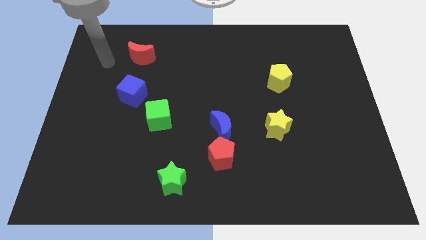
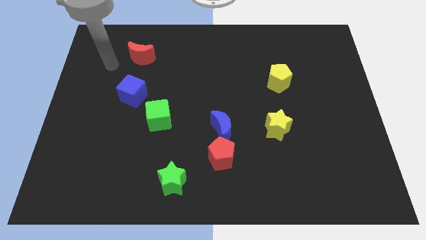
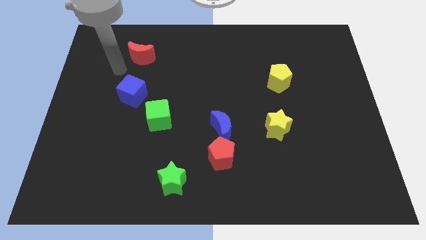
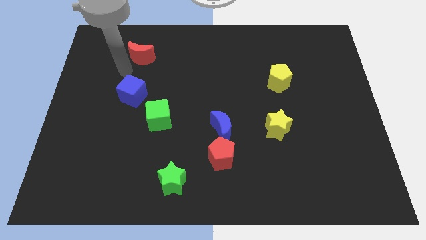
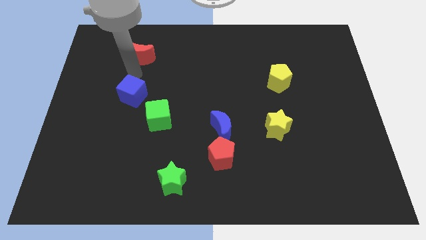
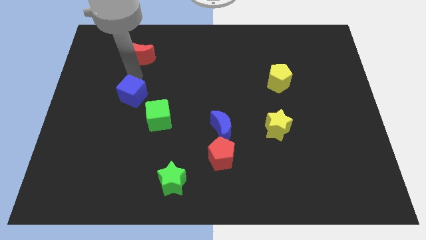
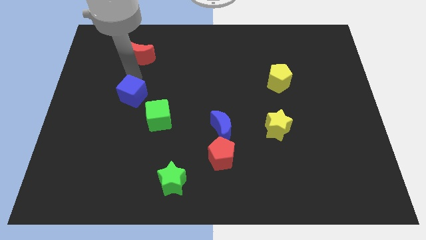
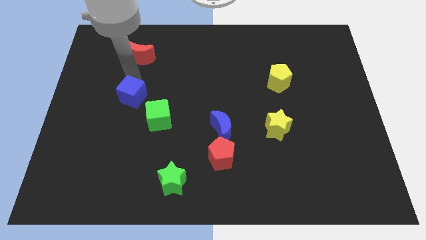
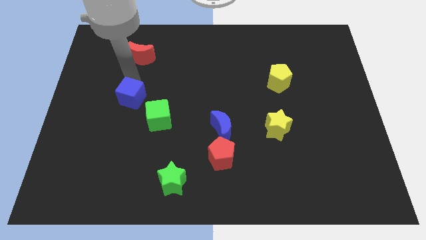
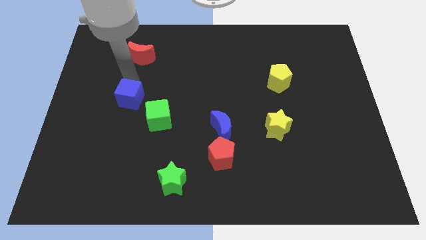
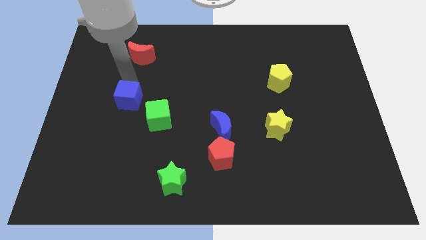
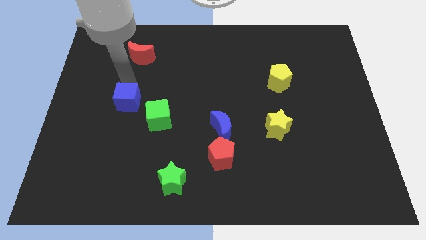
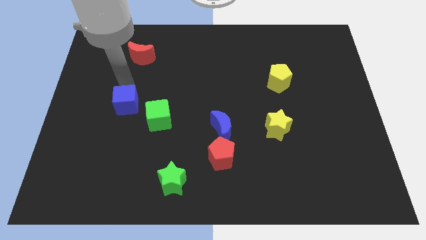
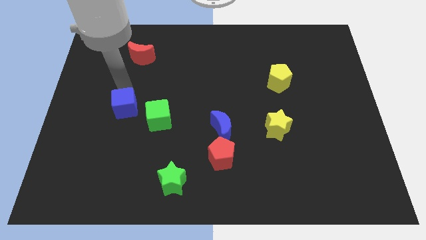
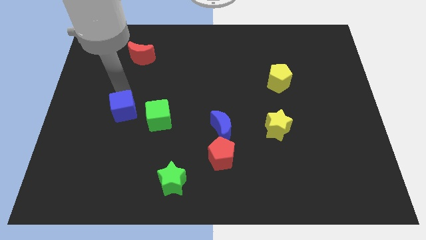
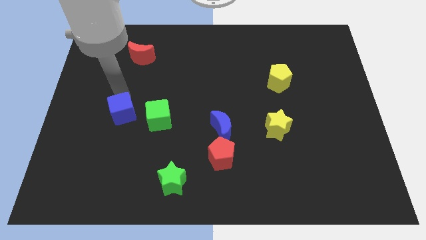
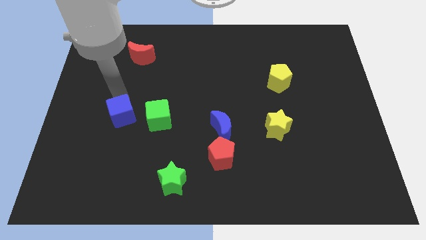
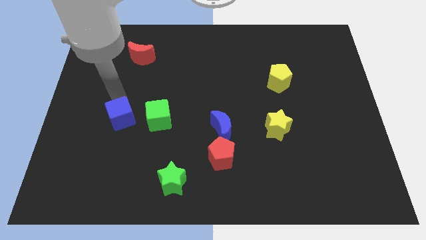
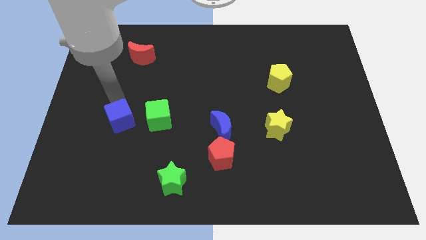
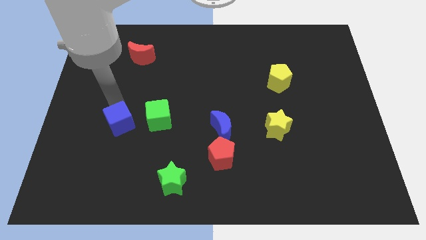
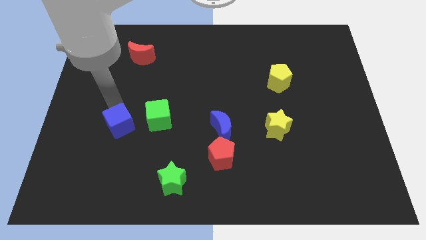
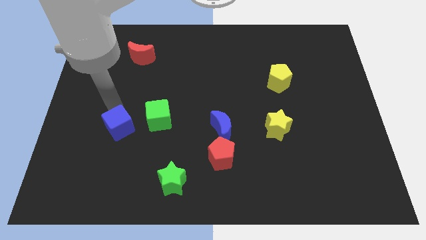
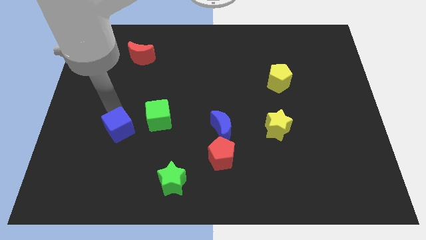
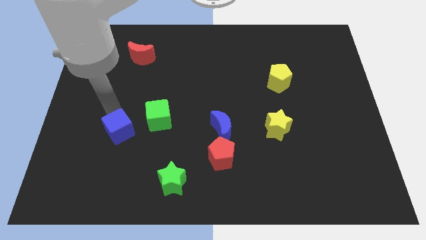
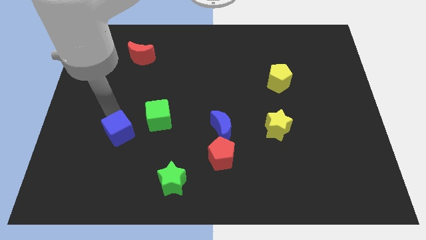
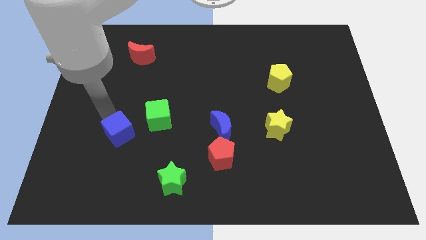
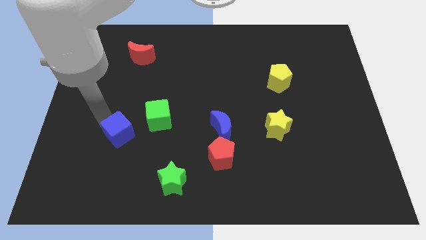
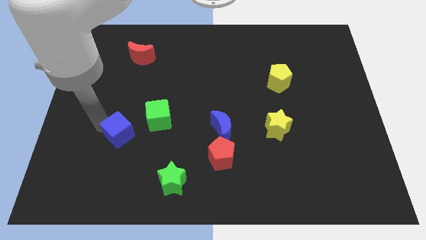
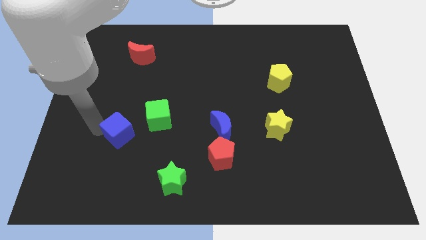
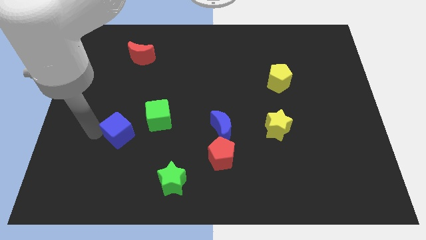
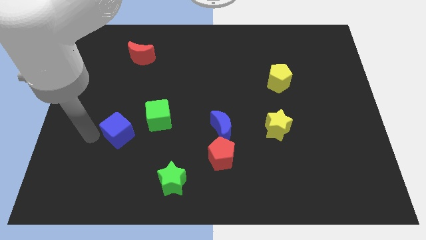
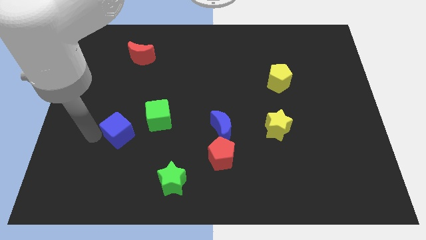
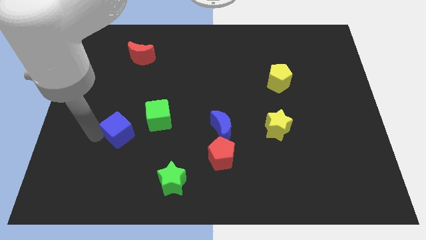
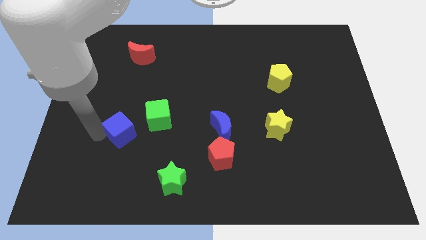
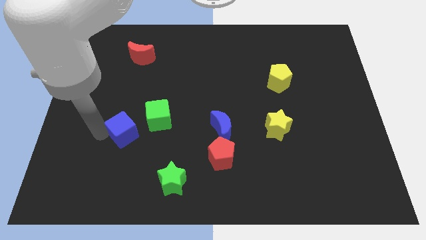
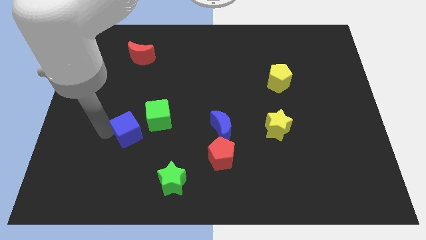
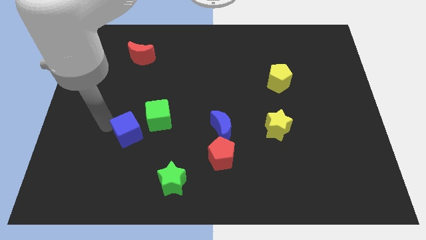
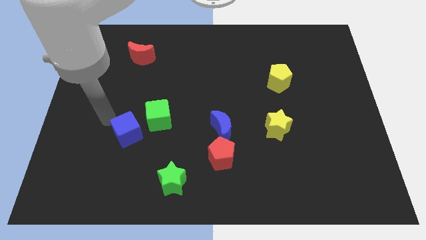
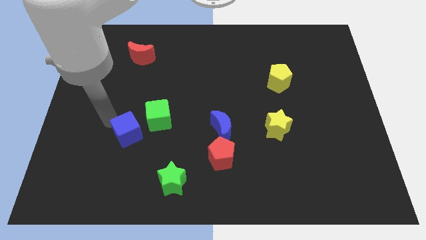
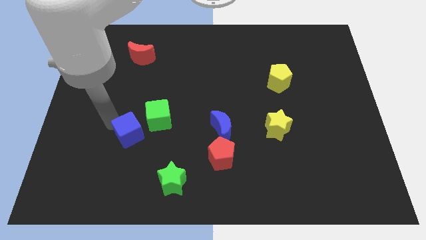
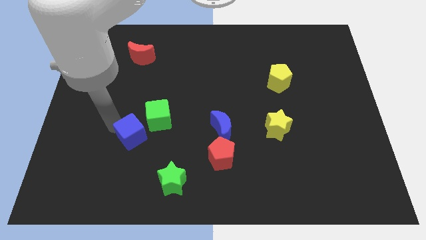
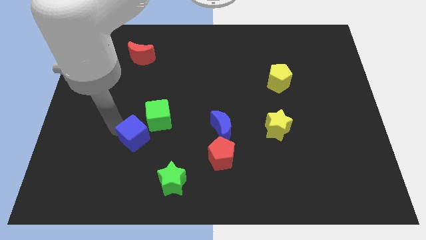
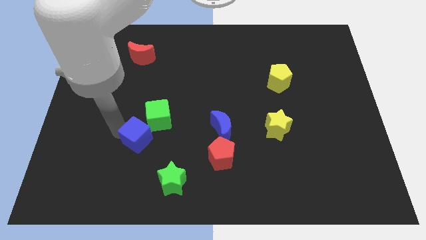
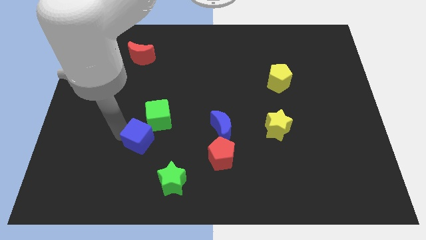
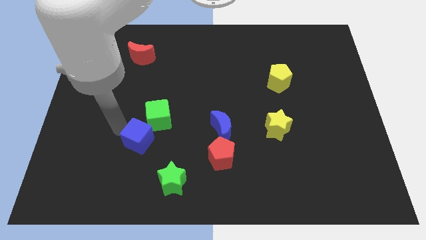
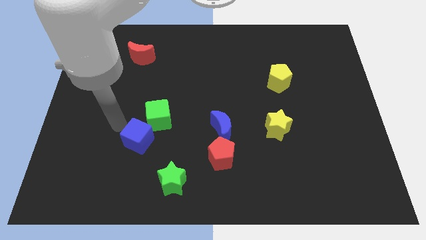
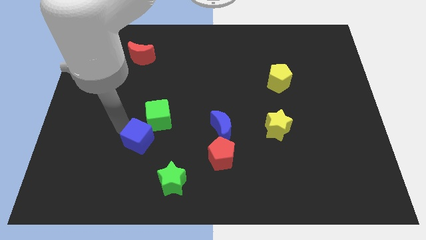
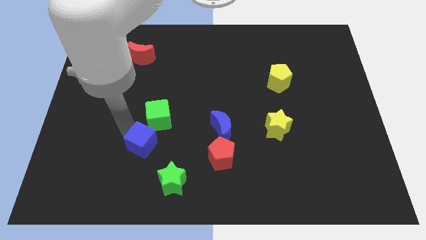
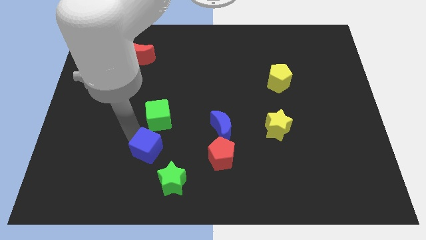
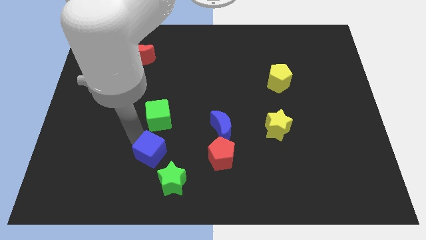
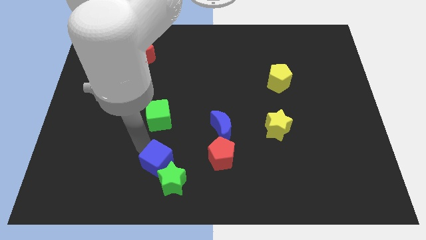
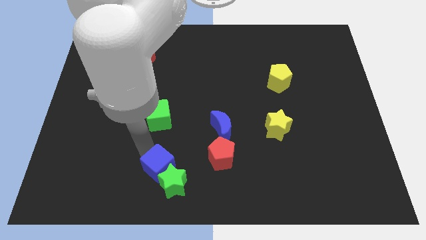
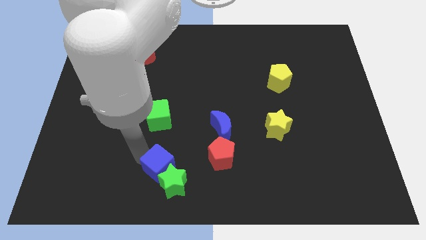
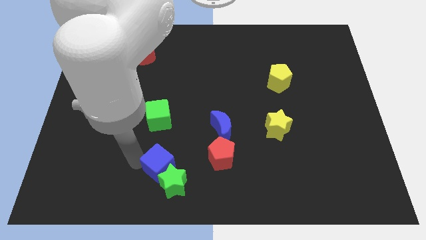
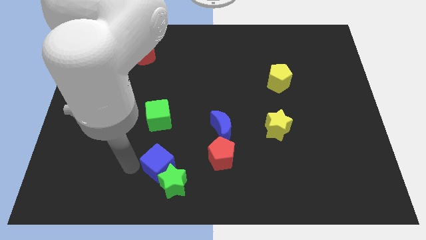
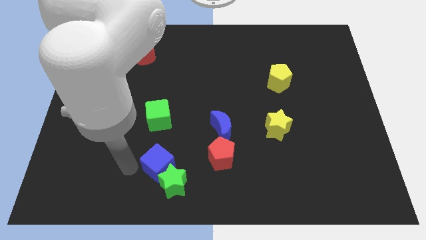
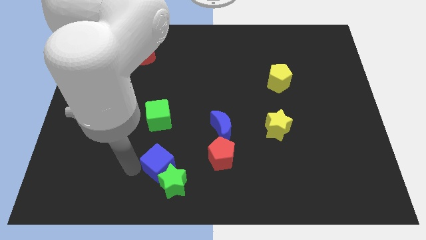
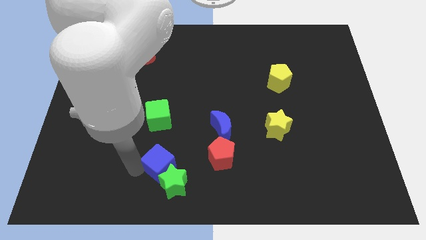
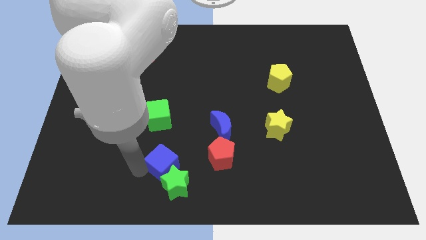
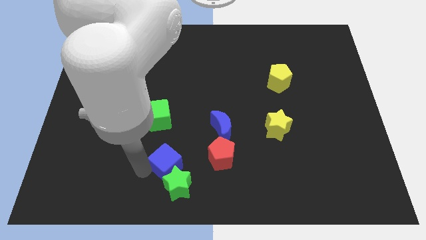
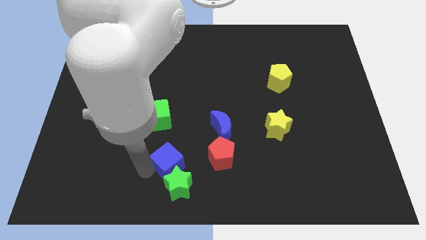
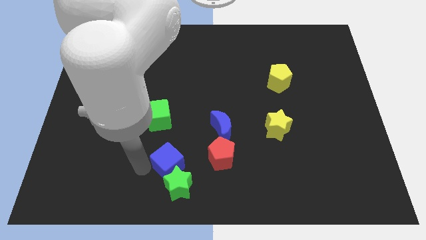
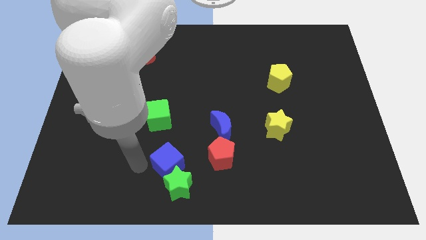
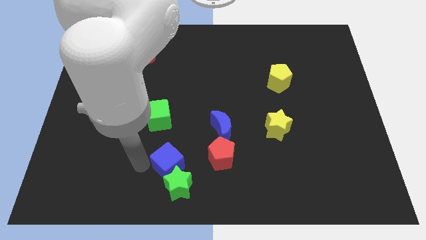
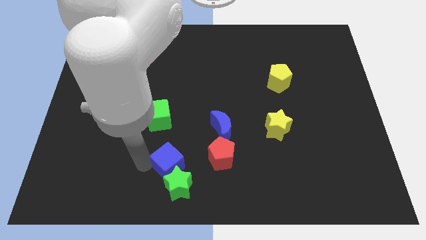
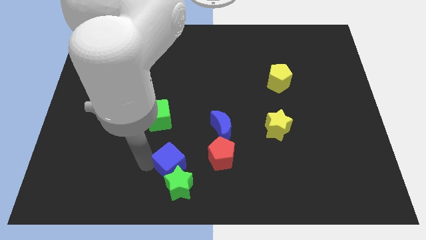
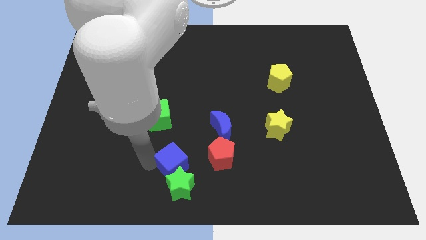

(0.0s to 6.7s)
slide the blue cube to the bottom
